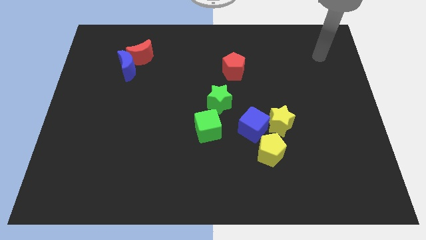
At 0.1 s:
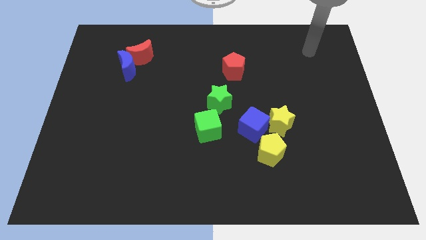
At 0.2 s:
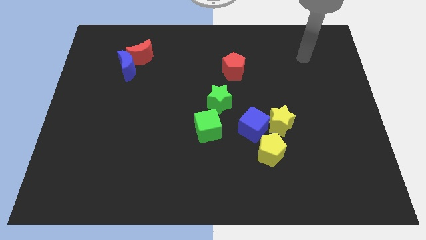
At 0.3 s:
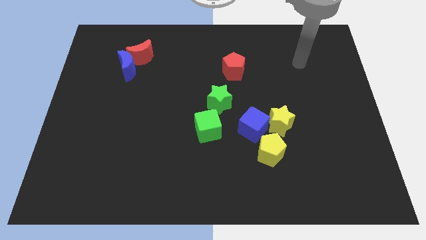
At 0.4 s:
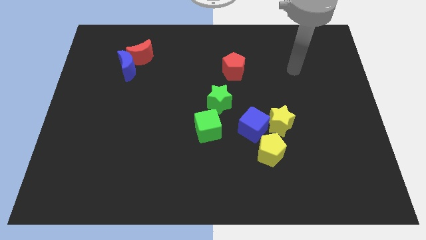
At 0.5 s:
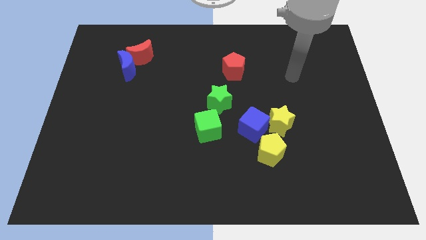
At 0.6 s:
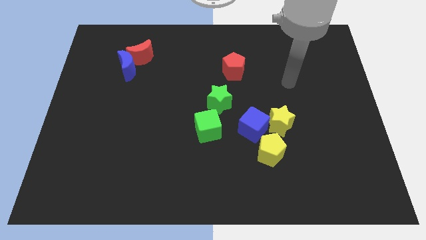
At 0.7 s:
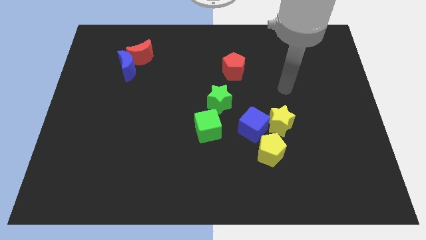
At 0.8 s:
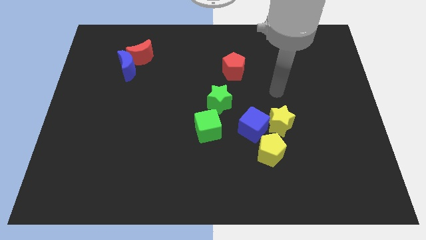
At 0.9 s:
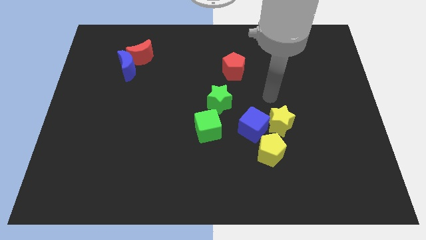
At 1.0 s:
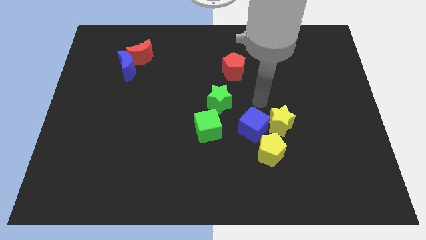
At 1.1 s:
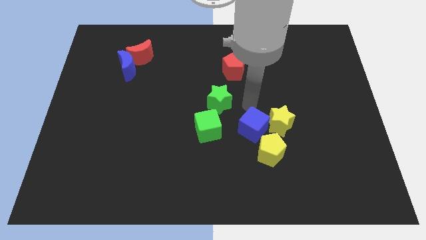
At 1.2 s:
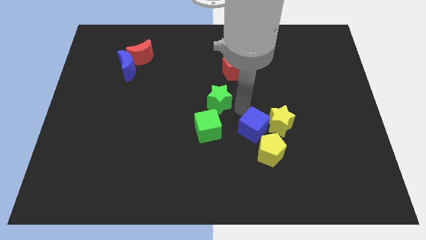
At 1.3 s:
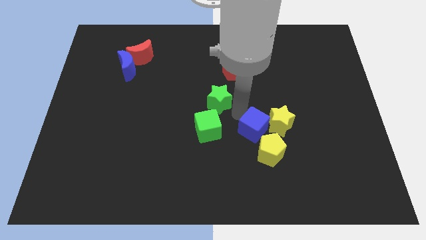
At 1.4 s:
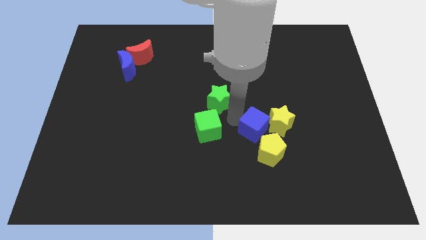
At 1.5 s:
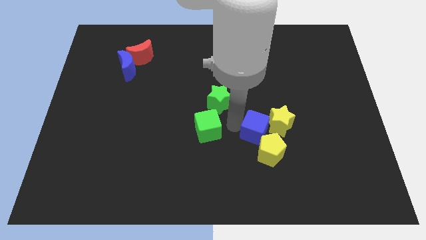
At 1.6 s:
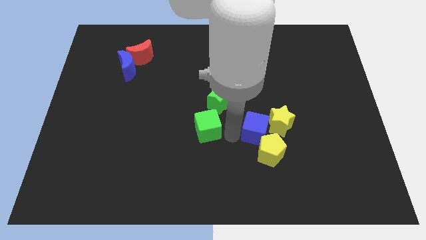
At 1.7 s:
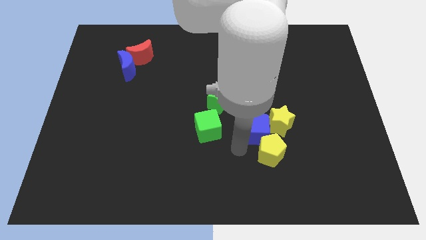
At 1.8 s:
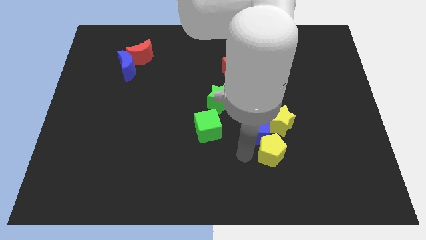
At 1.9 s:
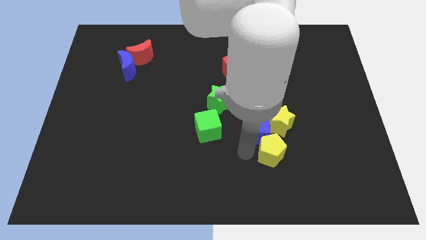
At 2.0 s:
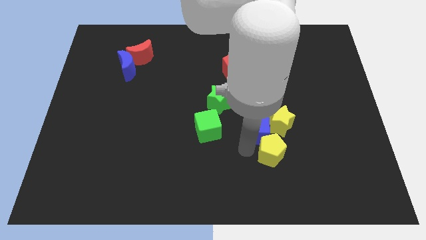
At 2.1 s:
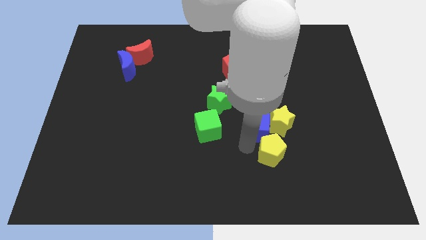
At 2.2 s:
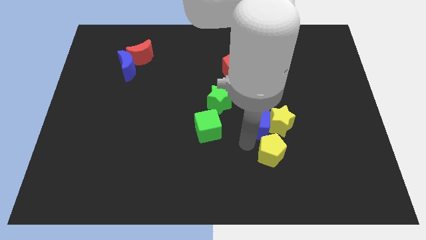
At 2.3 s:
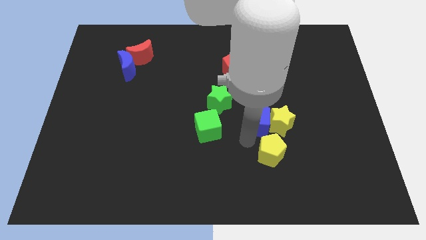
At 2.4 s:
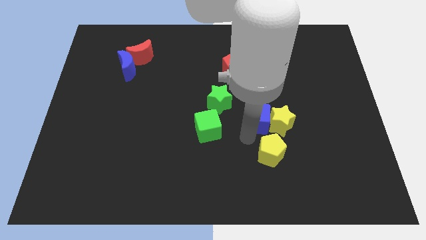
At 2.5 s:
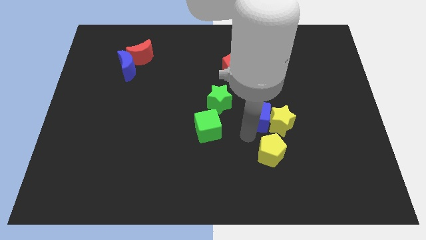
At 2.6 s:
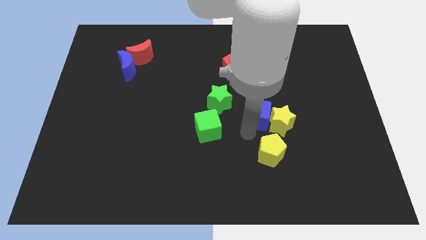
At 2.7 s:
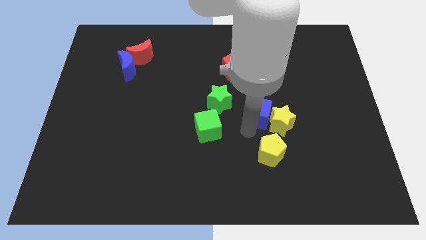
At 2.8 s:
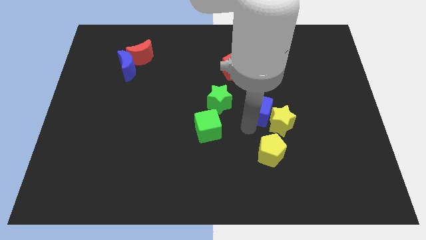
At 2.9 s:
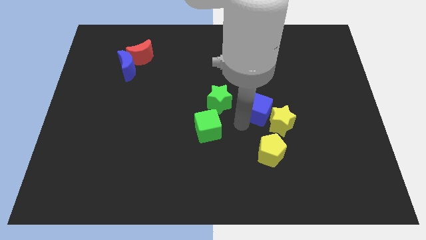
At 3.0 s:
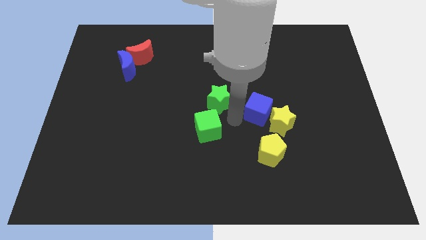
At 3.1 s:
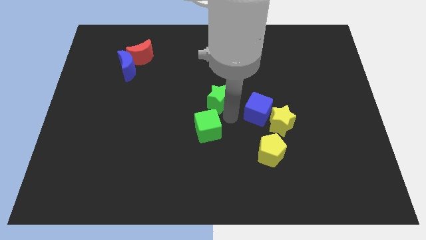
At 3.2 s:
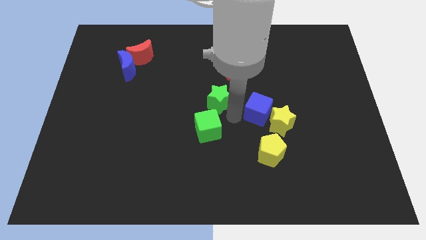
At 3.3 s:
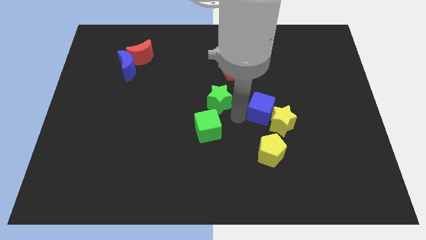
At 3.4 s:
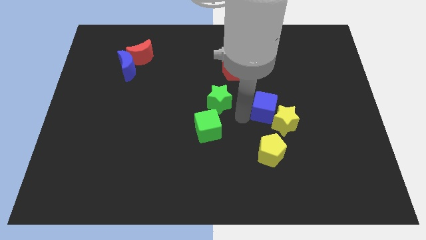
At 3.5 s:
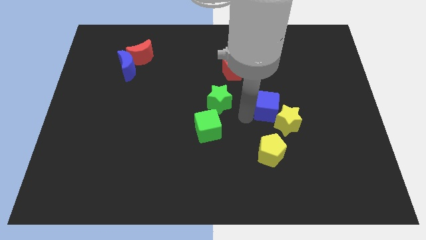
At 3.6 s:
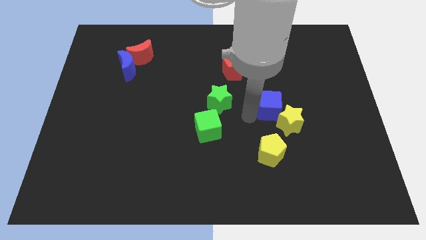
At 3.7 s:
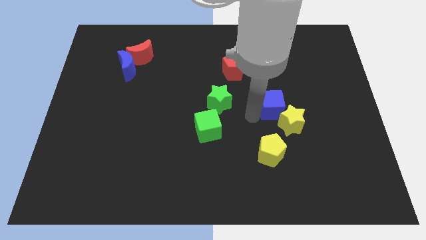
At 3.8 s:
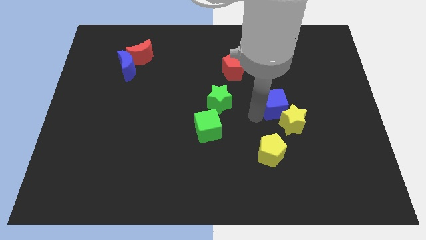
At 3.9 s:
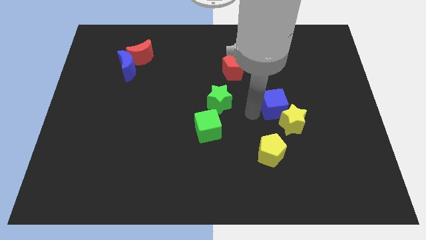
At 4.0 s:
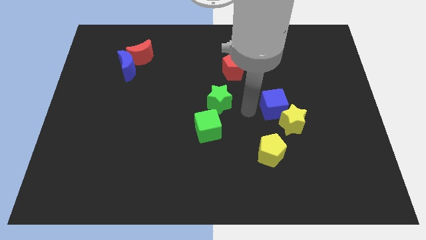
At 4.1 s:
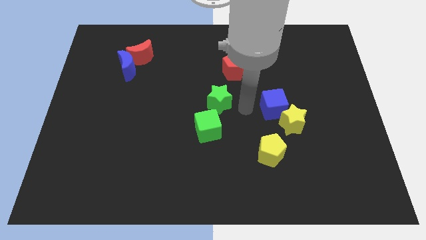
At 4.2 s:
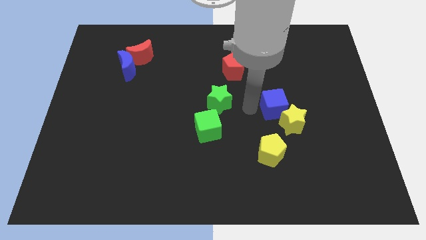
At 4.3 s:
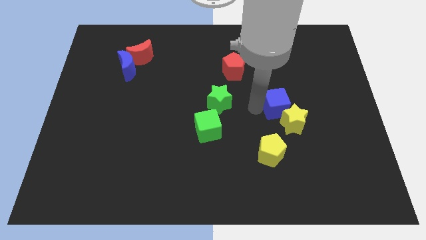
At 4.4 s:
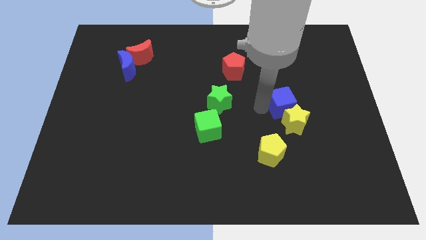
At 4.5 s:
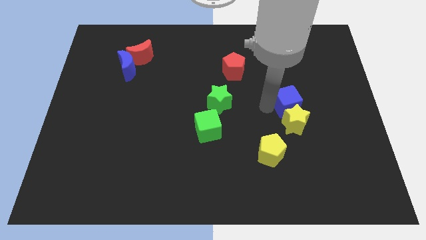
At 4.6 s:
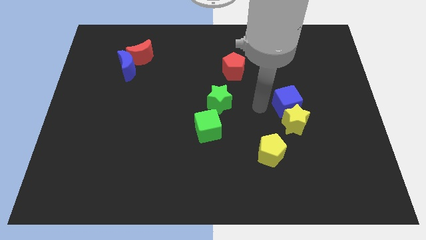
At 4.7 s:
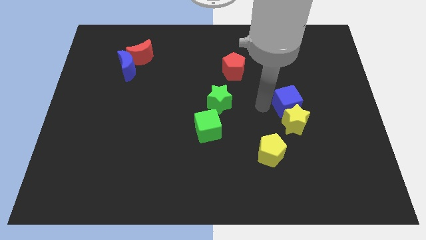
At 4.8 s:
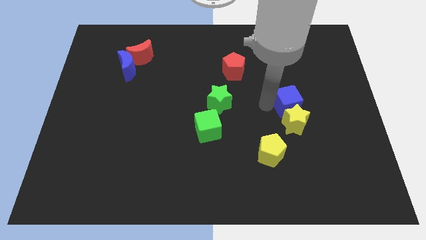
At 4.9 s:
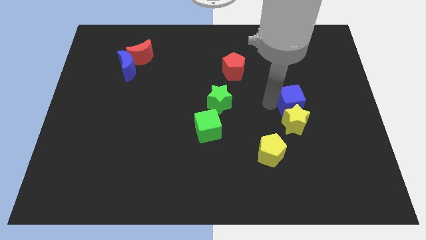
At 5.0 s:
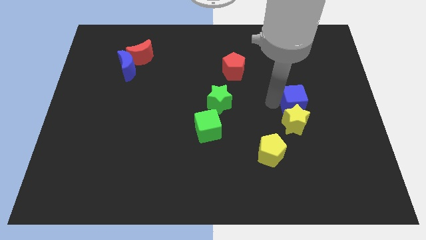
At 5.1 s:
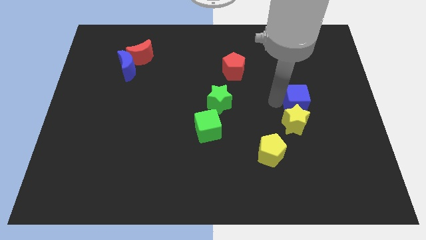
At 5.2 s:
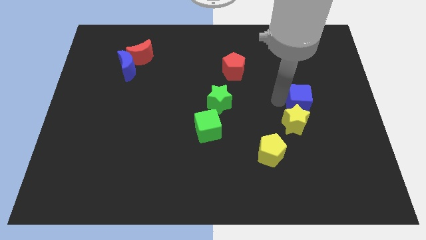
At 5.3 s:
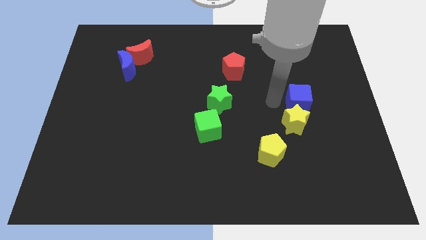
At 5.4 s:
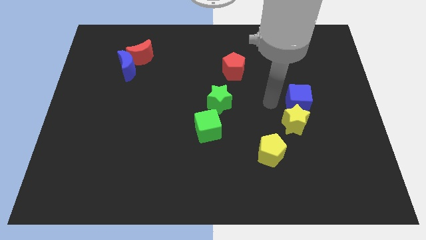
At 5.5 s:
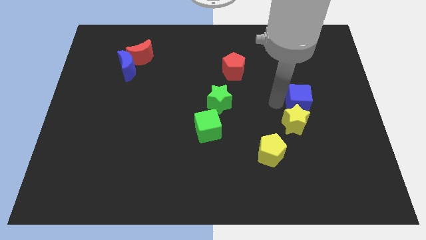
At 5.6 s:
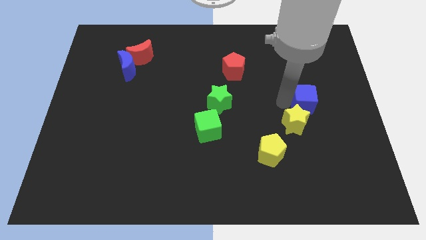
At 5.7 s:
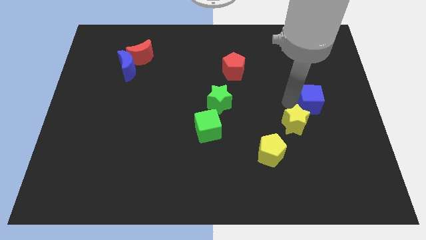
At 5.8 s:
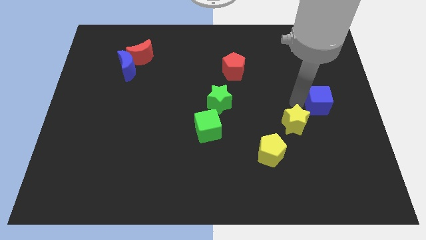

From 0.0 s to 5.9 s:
move the blue cube to the center right

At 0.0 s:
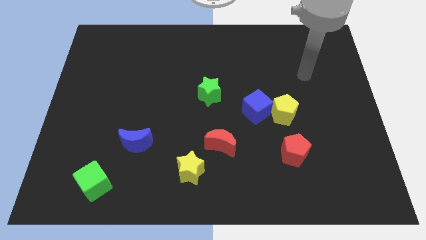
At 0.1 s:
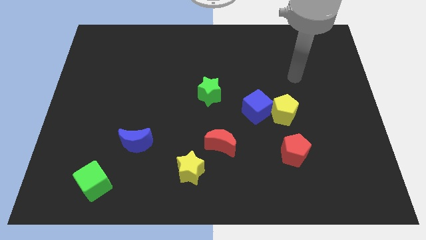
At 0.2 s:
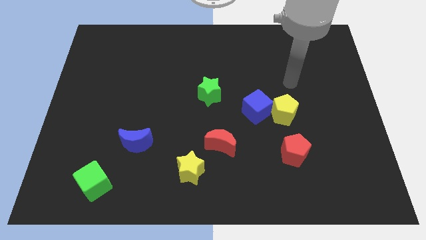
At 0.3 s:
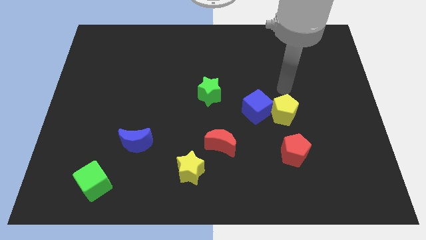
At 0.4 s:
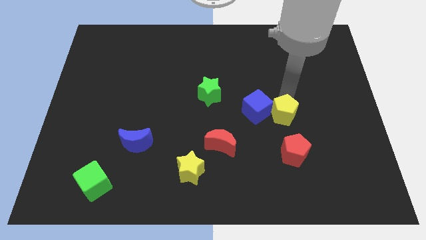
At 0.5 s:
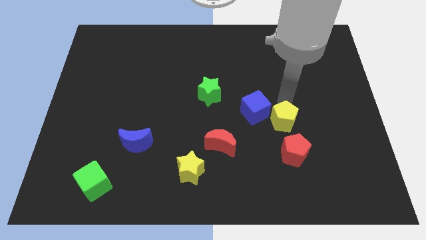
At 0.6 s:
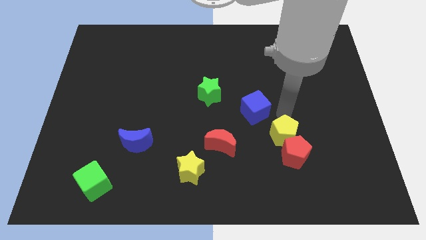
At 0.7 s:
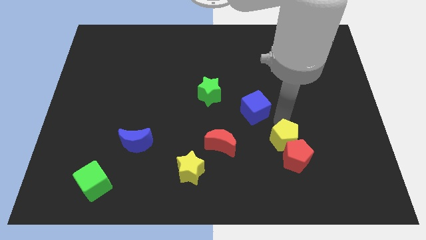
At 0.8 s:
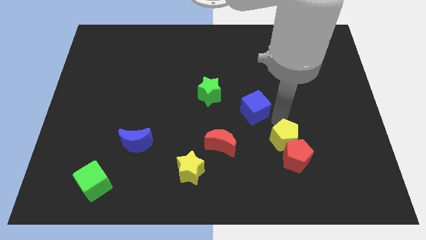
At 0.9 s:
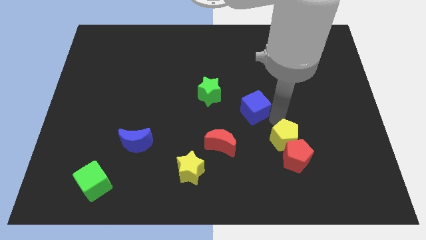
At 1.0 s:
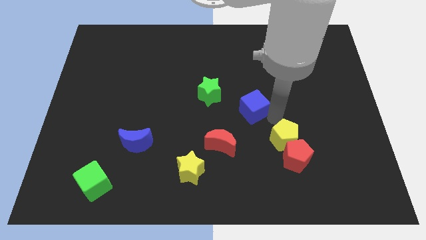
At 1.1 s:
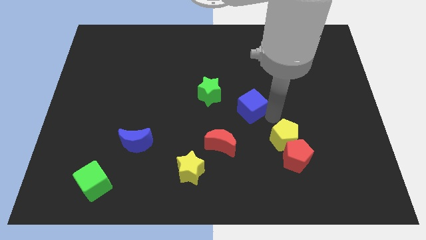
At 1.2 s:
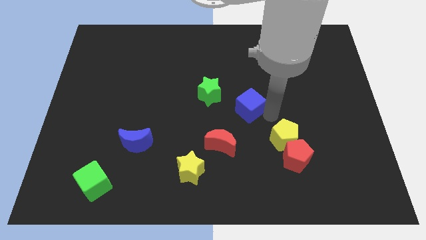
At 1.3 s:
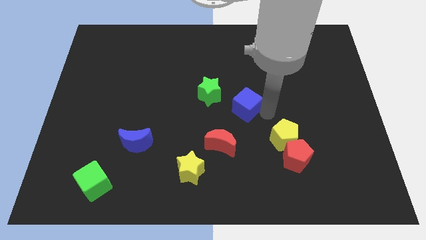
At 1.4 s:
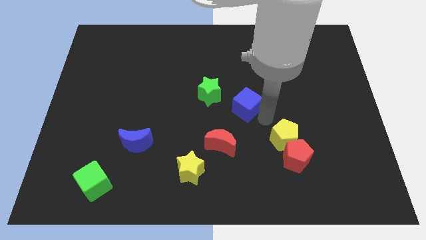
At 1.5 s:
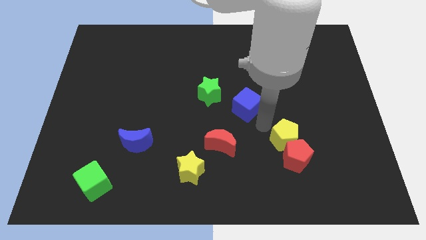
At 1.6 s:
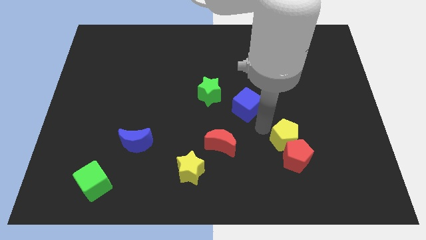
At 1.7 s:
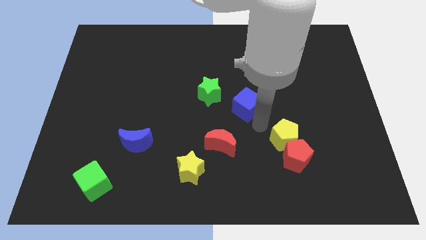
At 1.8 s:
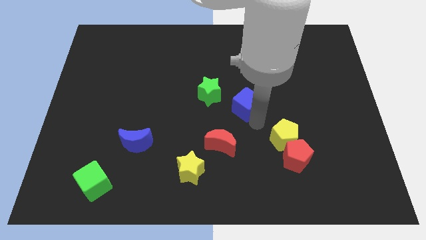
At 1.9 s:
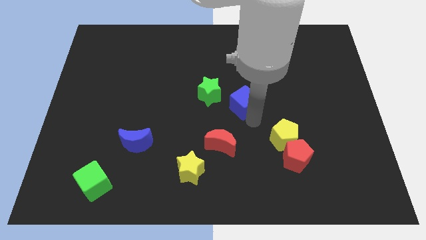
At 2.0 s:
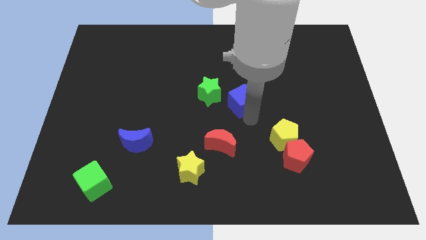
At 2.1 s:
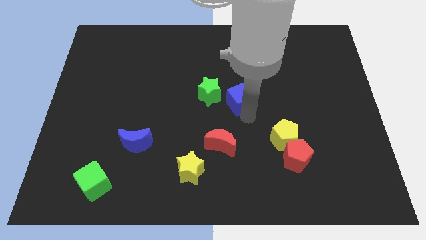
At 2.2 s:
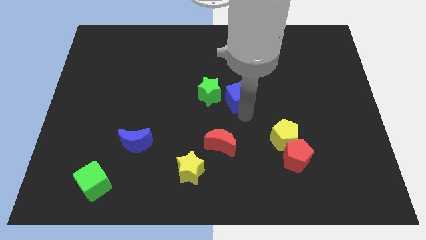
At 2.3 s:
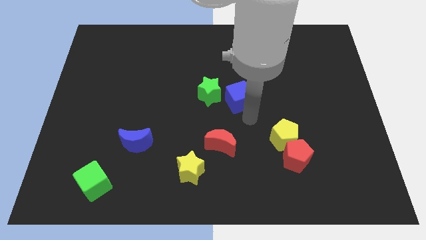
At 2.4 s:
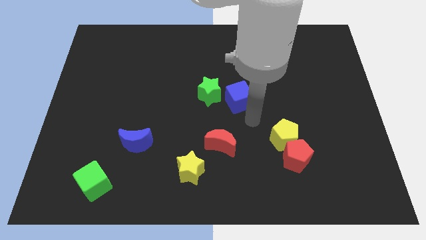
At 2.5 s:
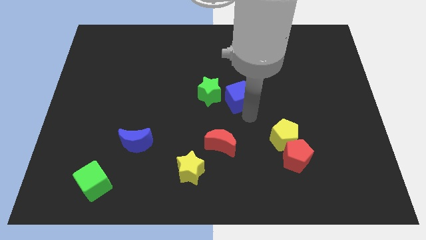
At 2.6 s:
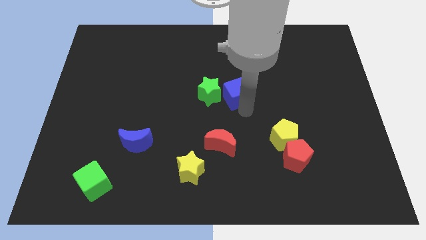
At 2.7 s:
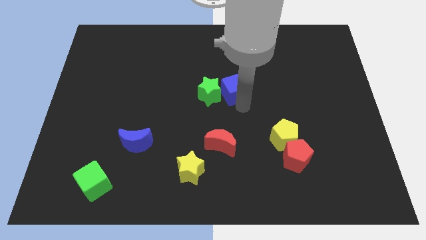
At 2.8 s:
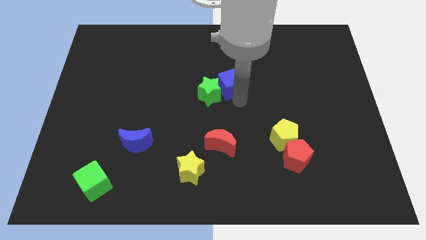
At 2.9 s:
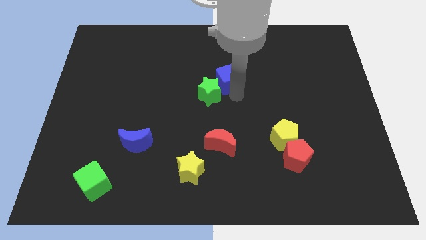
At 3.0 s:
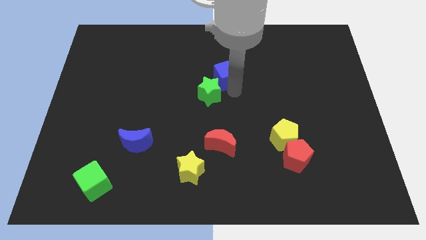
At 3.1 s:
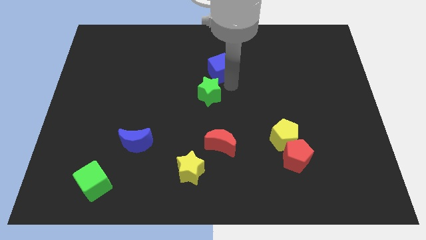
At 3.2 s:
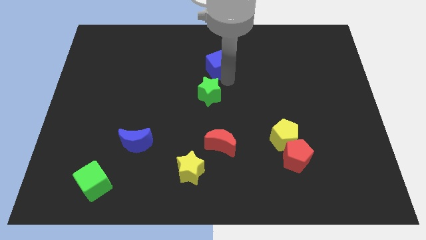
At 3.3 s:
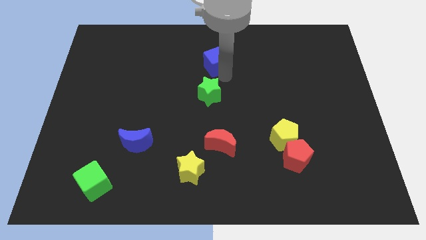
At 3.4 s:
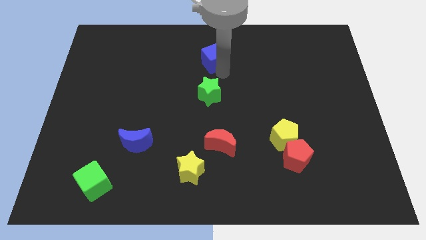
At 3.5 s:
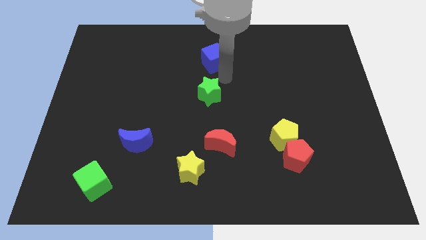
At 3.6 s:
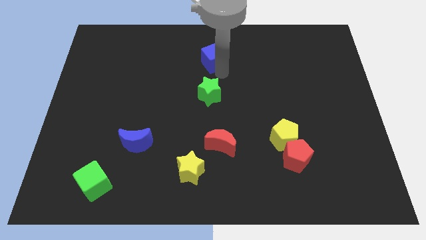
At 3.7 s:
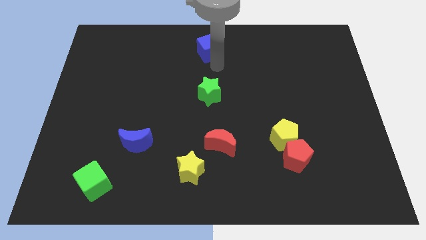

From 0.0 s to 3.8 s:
move the blue cube to the towards your base
